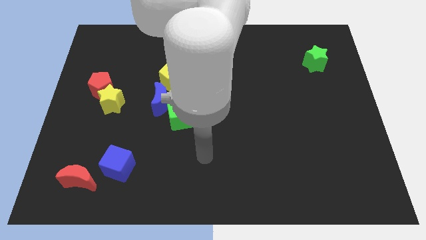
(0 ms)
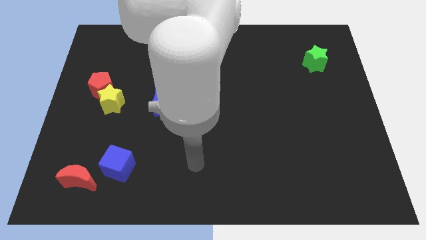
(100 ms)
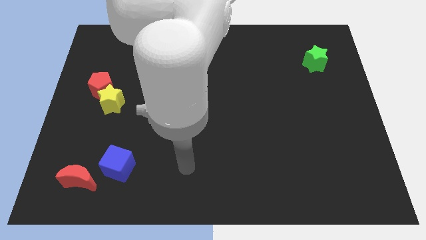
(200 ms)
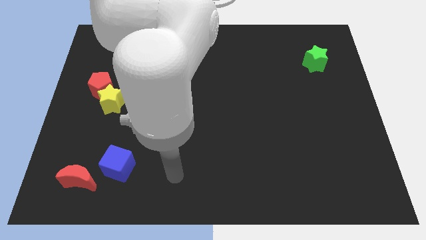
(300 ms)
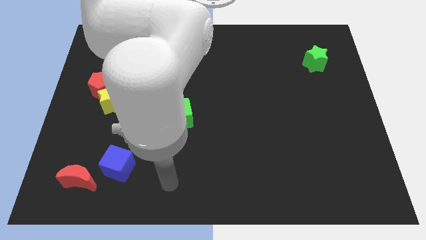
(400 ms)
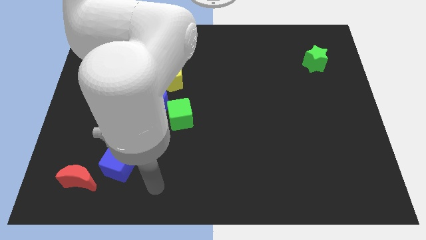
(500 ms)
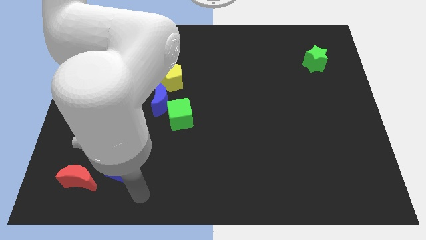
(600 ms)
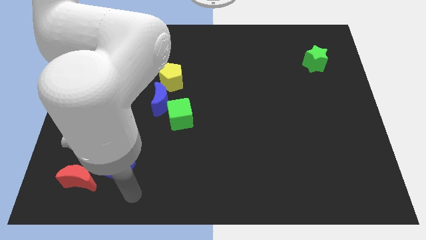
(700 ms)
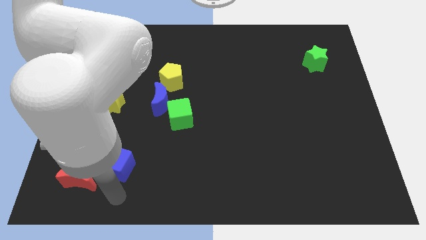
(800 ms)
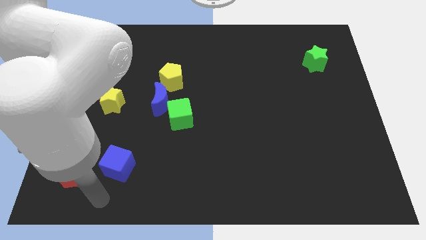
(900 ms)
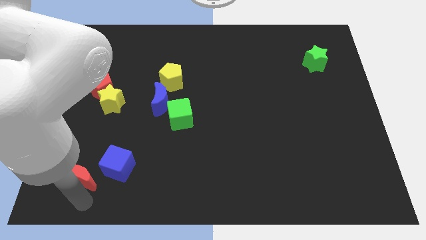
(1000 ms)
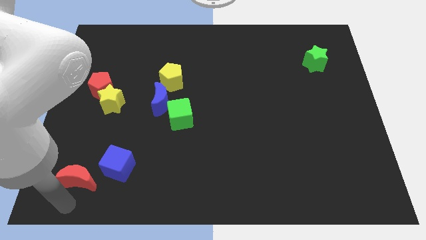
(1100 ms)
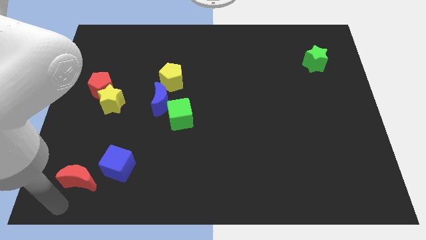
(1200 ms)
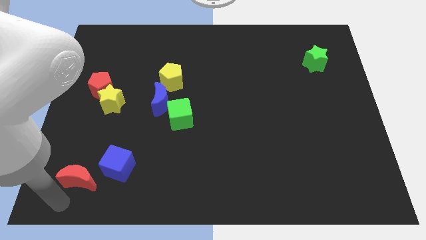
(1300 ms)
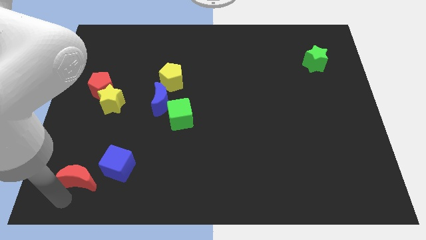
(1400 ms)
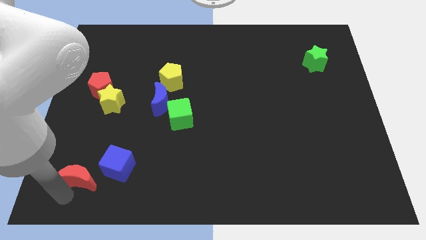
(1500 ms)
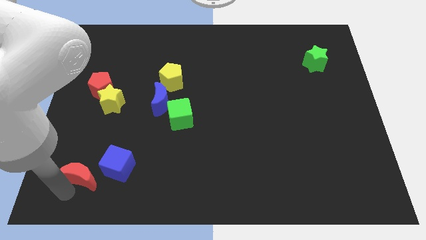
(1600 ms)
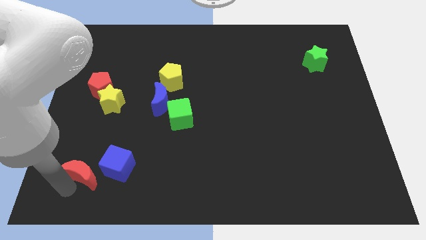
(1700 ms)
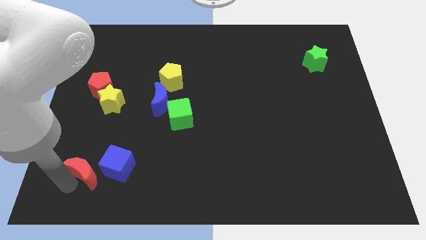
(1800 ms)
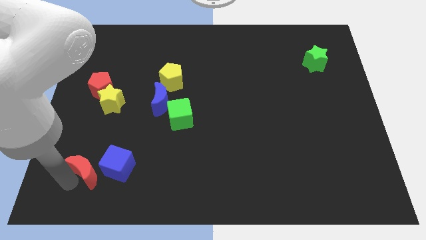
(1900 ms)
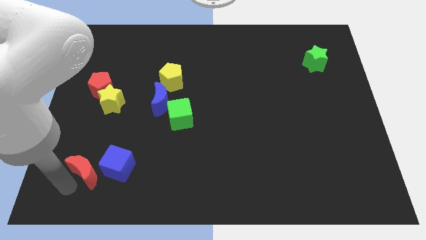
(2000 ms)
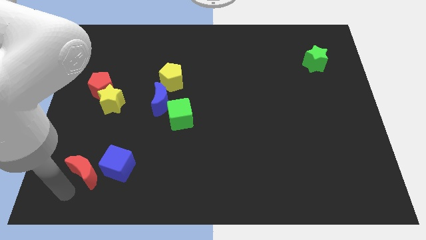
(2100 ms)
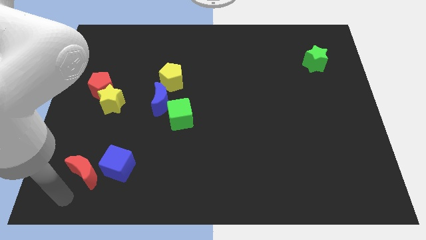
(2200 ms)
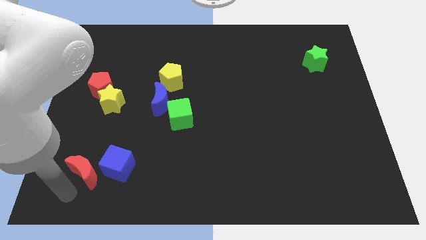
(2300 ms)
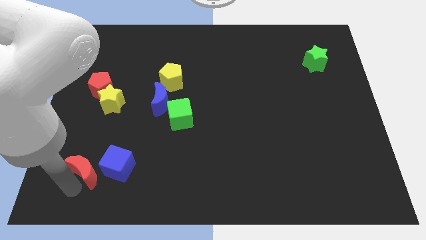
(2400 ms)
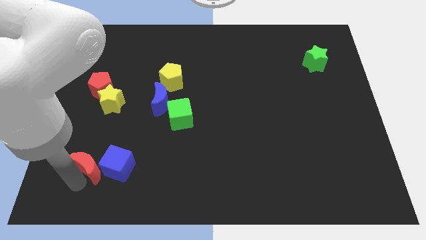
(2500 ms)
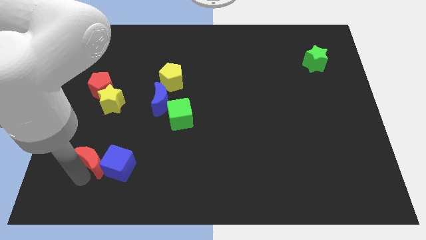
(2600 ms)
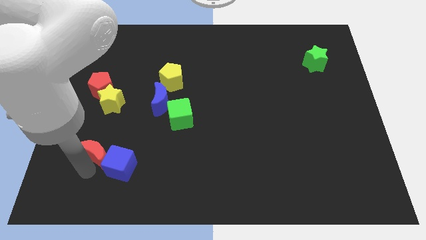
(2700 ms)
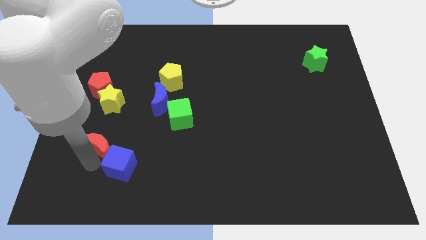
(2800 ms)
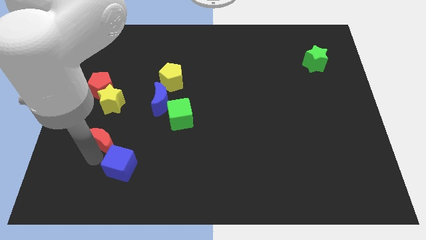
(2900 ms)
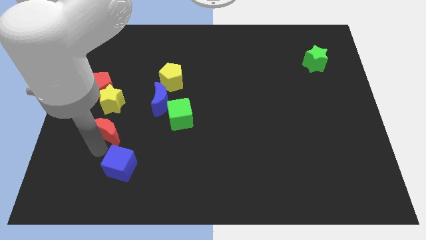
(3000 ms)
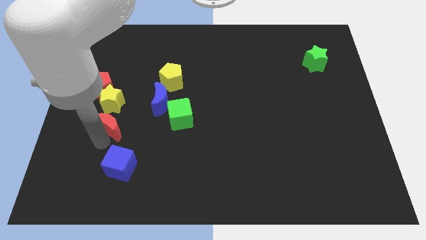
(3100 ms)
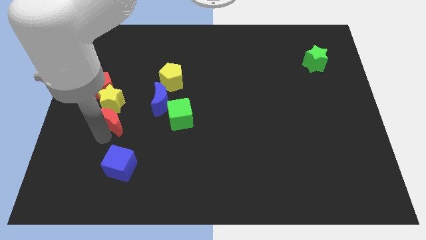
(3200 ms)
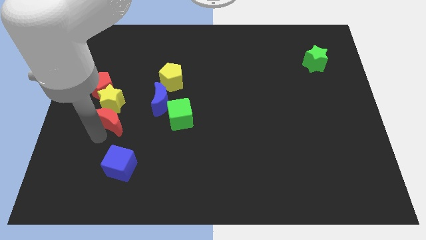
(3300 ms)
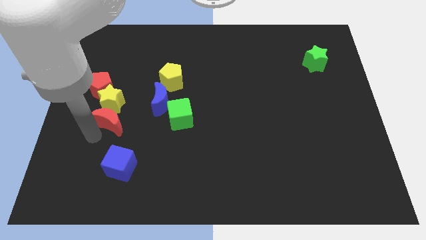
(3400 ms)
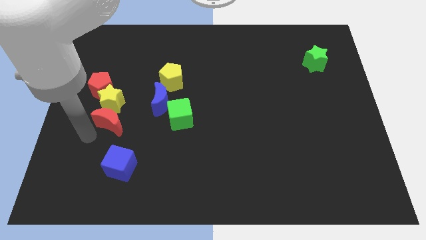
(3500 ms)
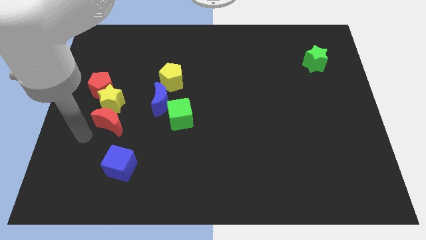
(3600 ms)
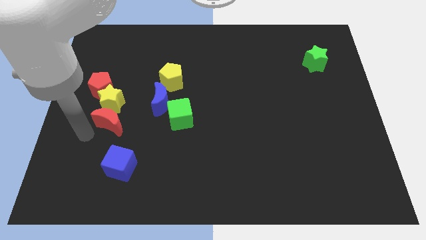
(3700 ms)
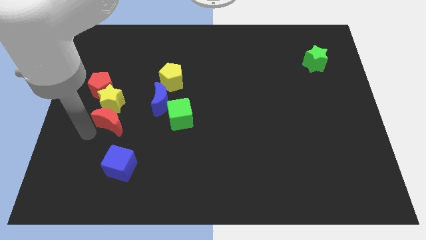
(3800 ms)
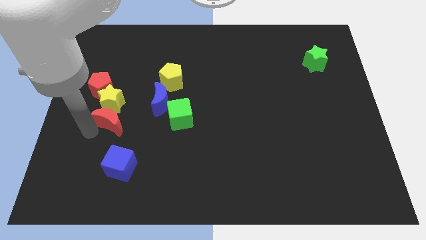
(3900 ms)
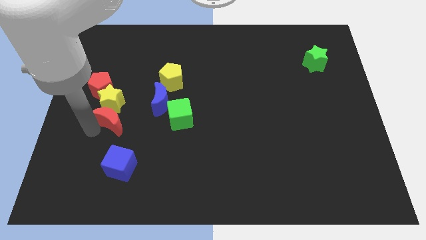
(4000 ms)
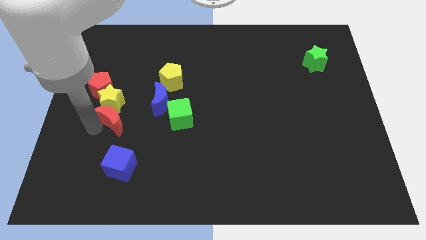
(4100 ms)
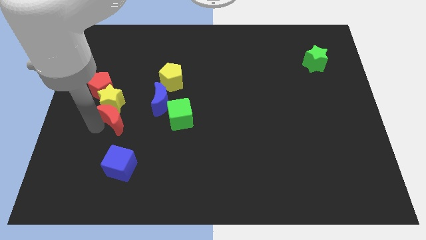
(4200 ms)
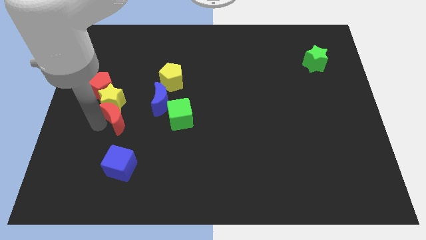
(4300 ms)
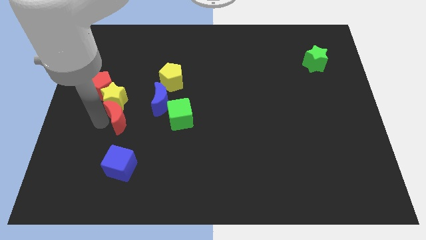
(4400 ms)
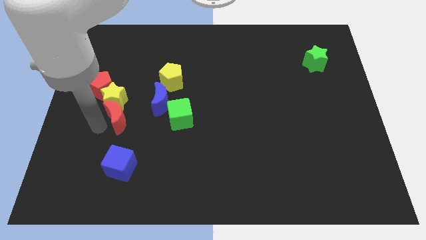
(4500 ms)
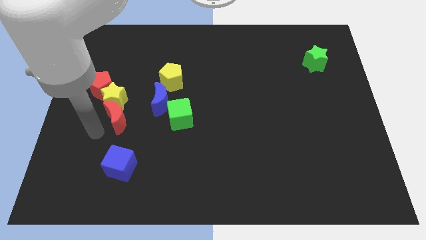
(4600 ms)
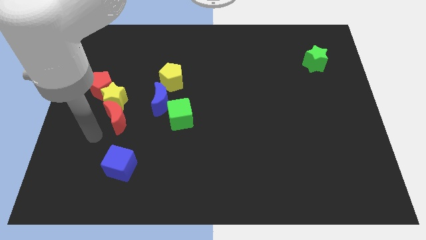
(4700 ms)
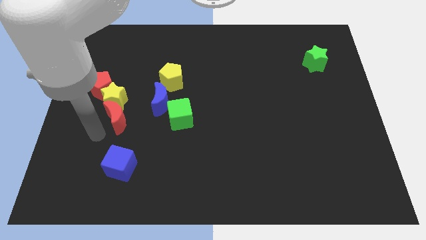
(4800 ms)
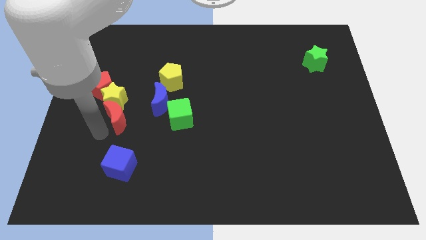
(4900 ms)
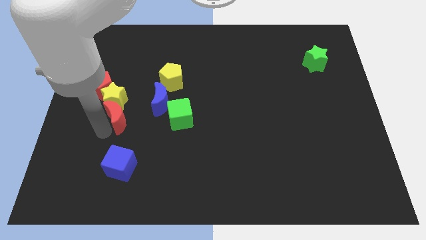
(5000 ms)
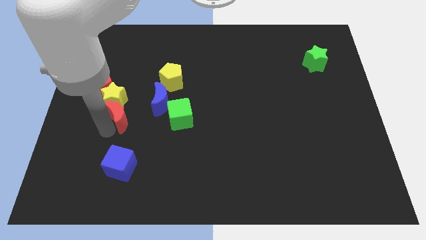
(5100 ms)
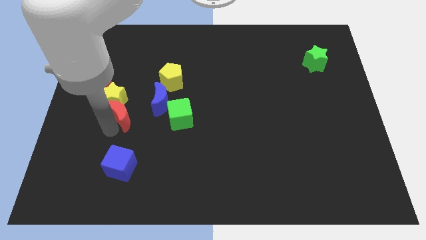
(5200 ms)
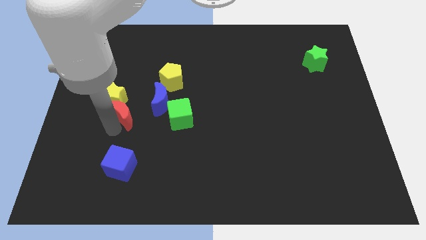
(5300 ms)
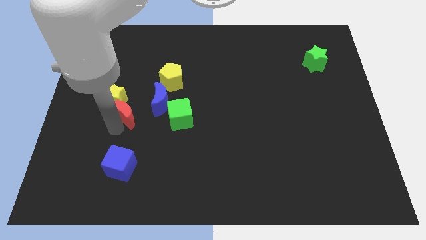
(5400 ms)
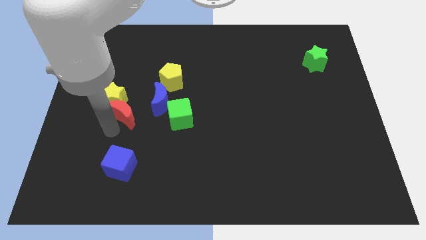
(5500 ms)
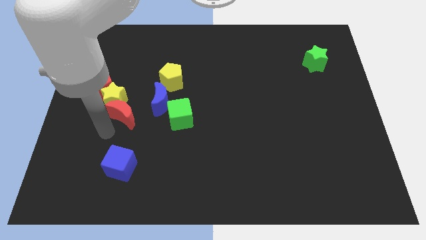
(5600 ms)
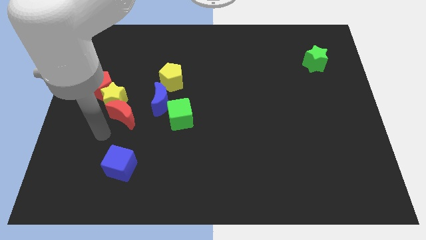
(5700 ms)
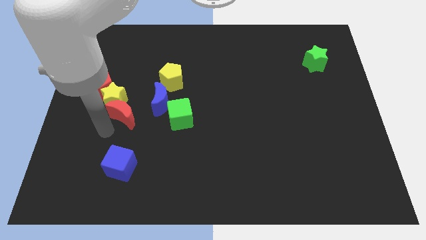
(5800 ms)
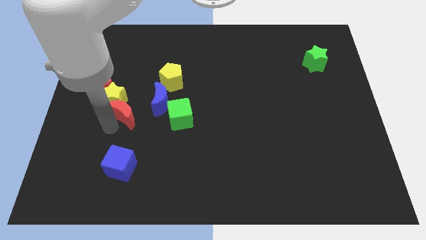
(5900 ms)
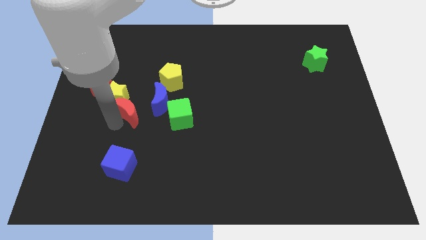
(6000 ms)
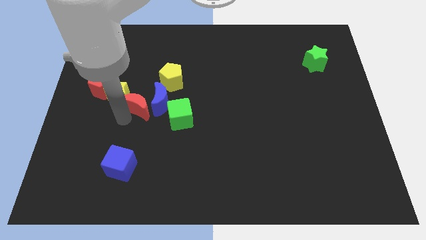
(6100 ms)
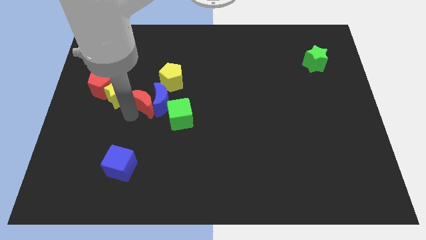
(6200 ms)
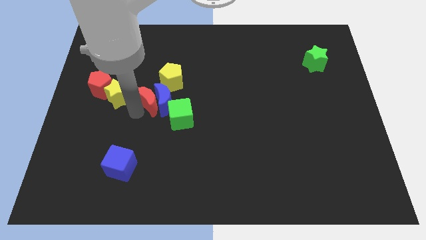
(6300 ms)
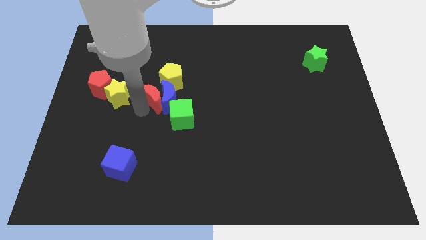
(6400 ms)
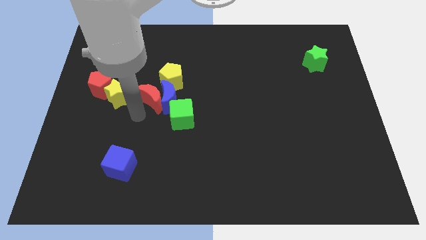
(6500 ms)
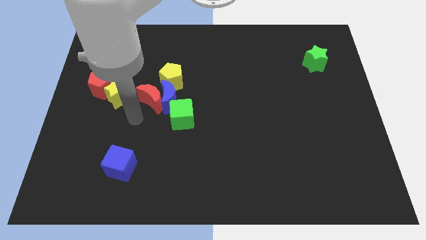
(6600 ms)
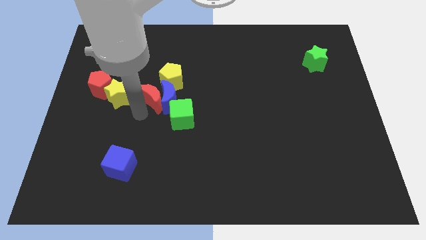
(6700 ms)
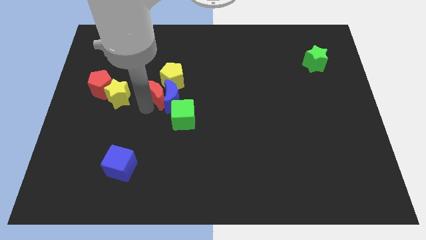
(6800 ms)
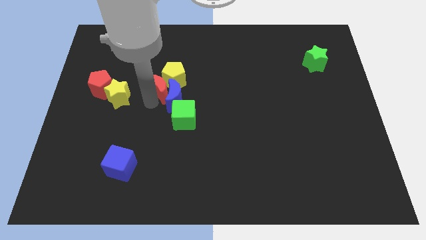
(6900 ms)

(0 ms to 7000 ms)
slide the red moon close to the yellow pentagon
